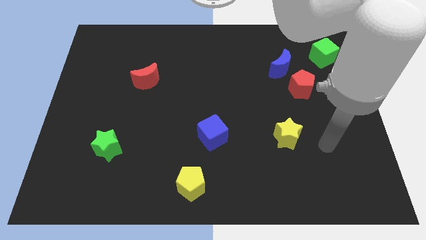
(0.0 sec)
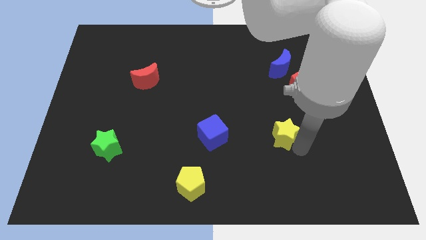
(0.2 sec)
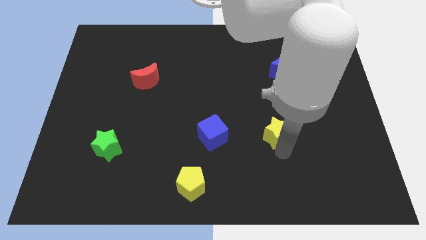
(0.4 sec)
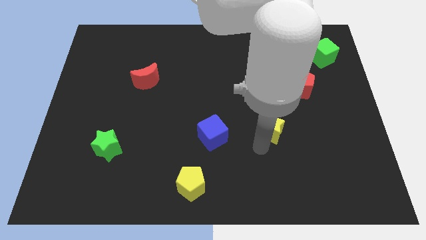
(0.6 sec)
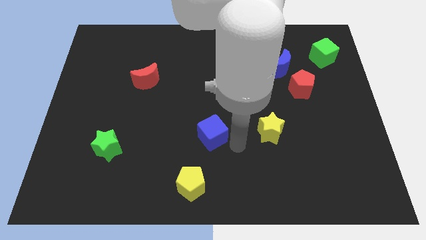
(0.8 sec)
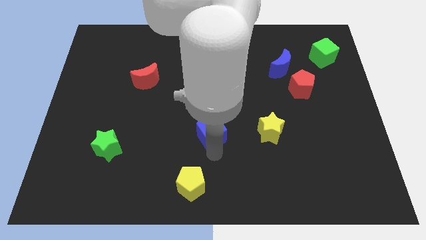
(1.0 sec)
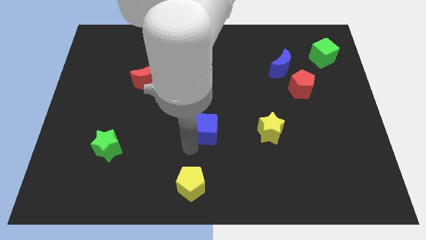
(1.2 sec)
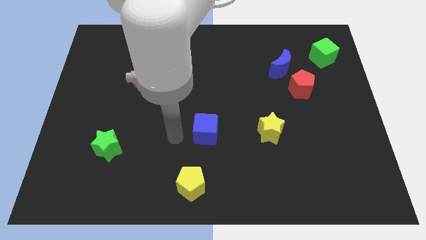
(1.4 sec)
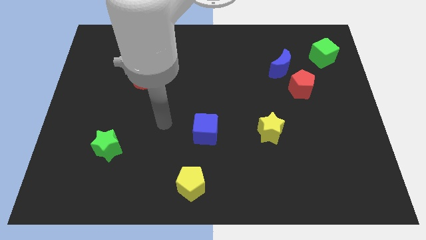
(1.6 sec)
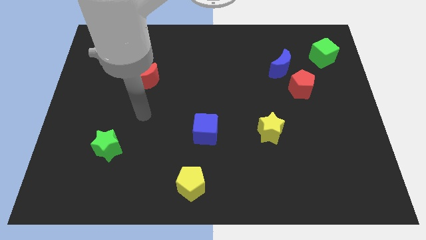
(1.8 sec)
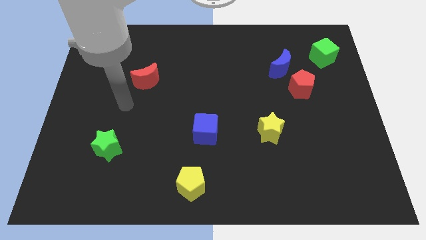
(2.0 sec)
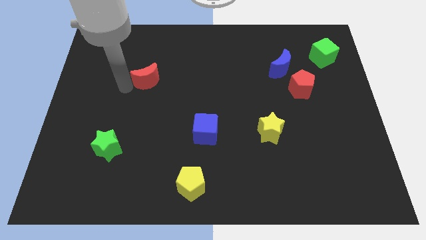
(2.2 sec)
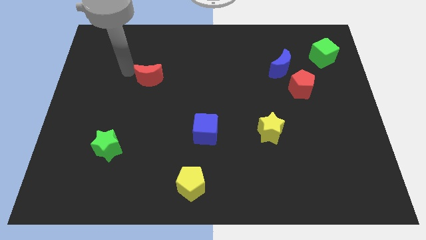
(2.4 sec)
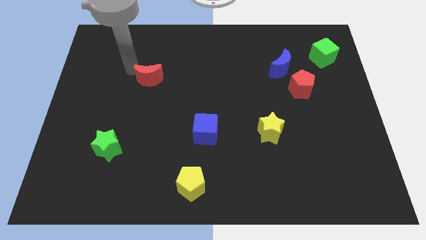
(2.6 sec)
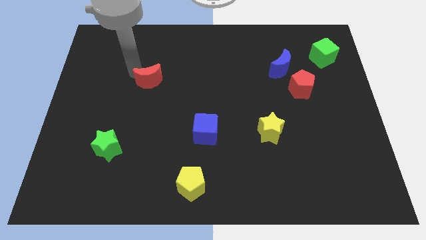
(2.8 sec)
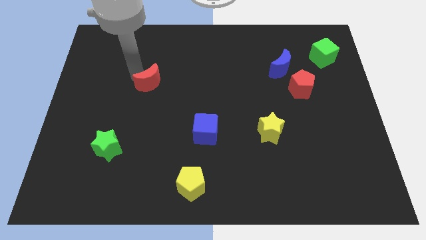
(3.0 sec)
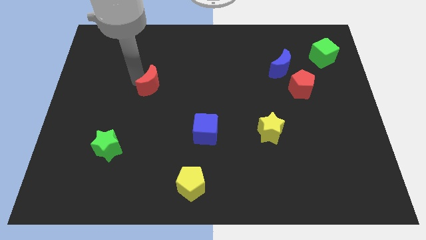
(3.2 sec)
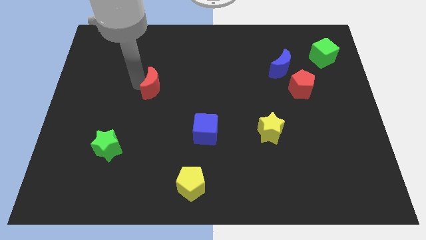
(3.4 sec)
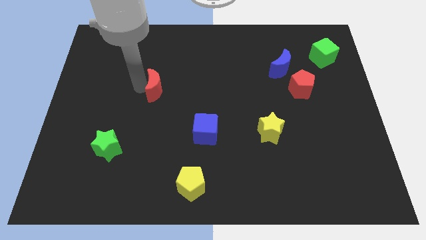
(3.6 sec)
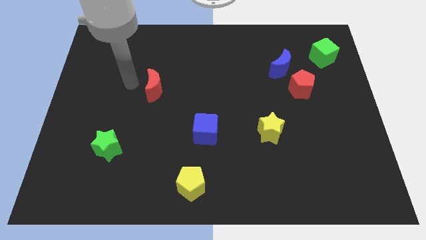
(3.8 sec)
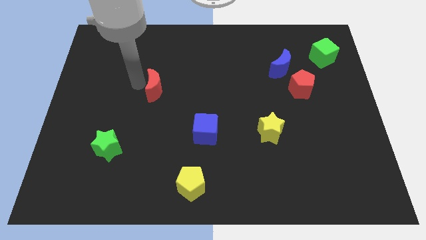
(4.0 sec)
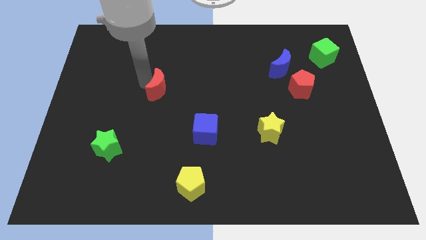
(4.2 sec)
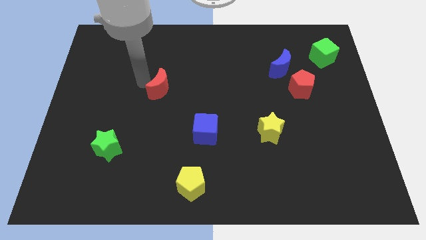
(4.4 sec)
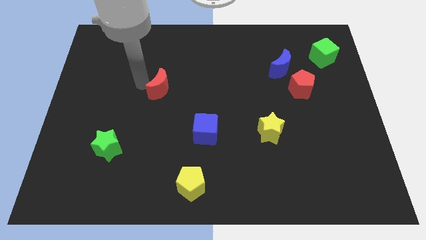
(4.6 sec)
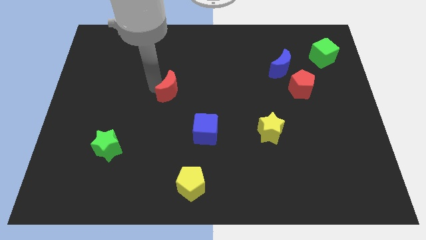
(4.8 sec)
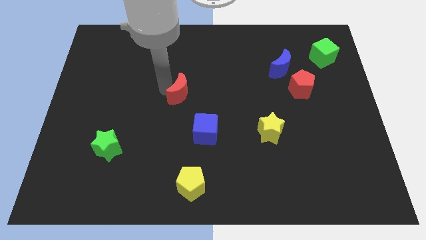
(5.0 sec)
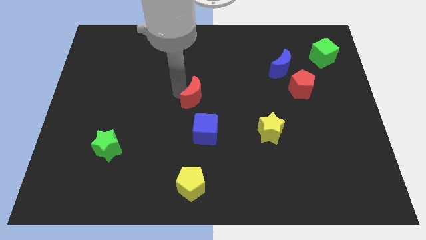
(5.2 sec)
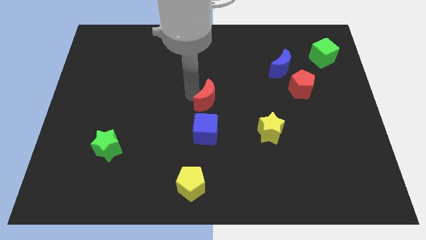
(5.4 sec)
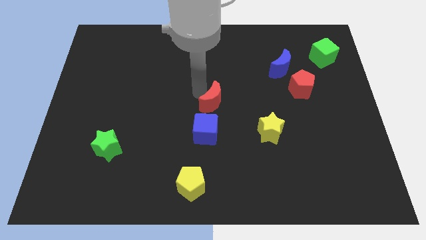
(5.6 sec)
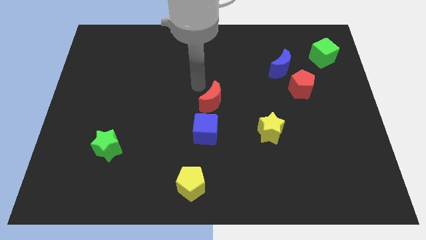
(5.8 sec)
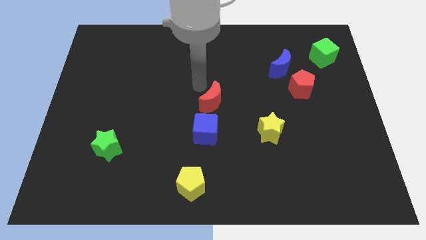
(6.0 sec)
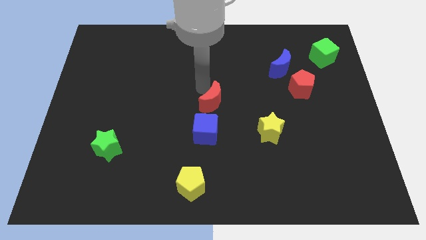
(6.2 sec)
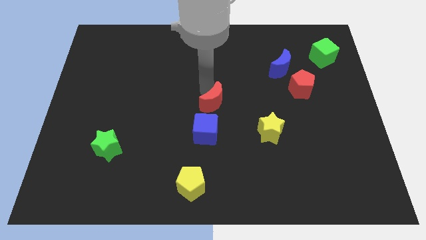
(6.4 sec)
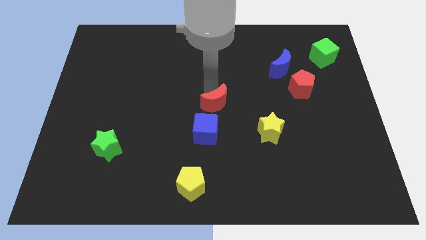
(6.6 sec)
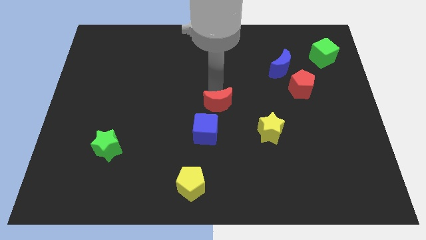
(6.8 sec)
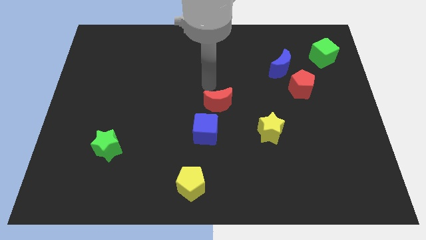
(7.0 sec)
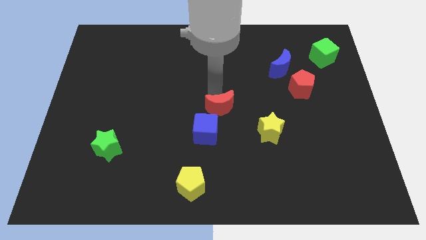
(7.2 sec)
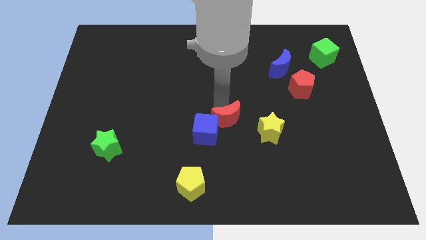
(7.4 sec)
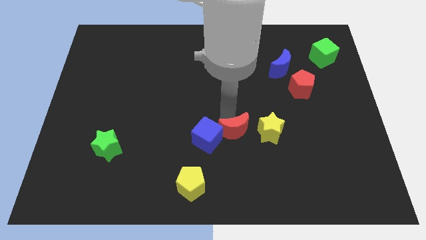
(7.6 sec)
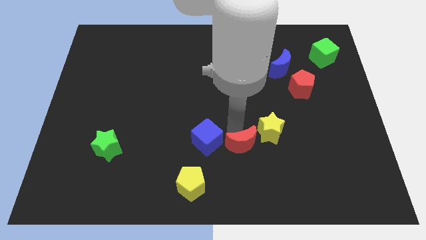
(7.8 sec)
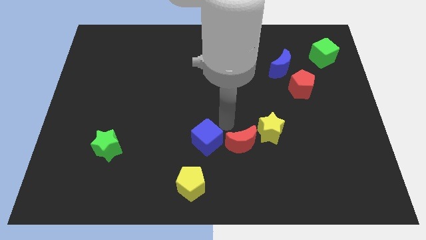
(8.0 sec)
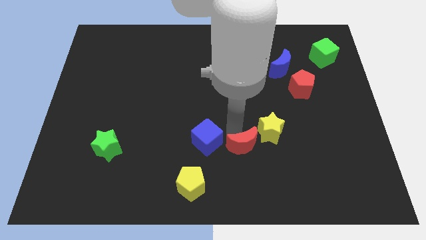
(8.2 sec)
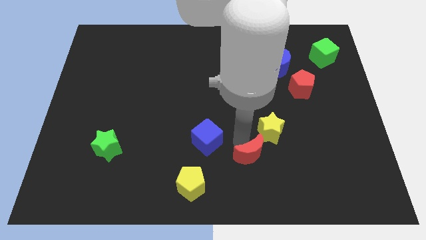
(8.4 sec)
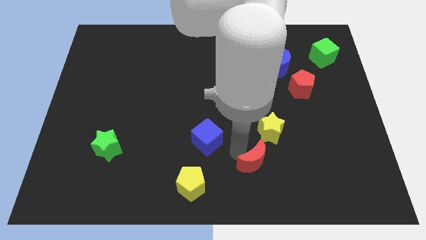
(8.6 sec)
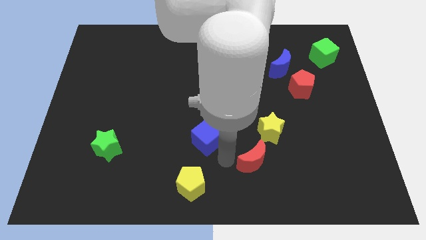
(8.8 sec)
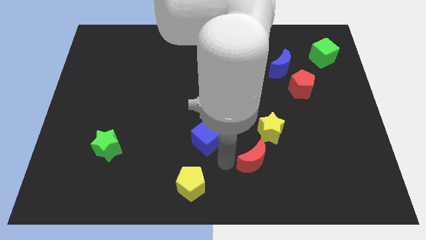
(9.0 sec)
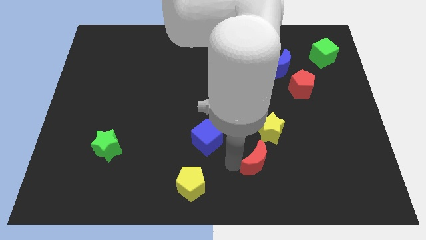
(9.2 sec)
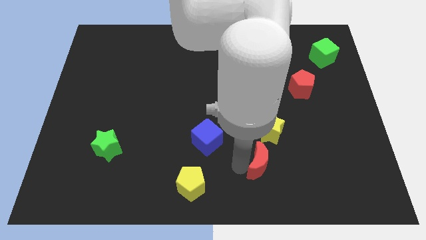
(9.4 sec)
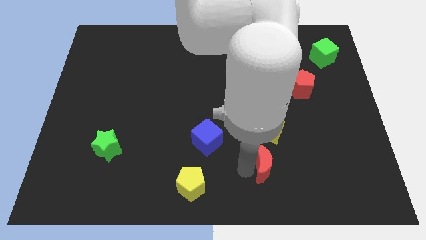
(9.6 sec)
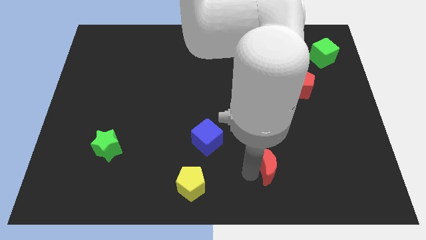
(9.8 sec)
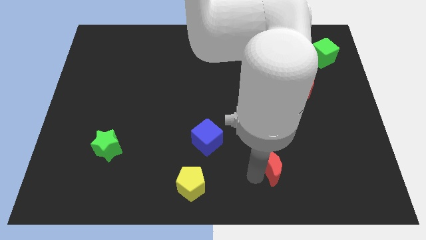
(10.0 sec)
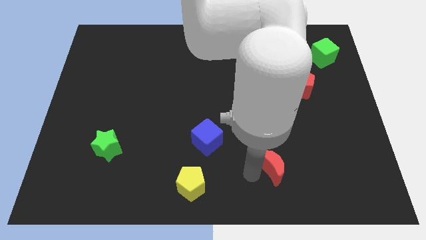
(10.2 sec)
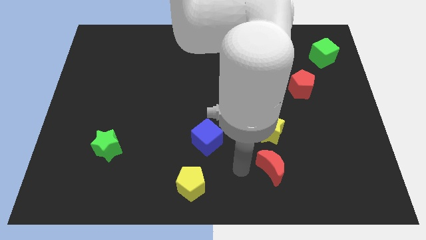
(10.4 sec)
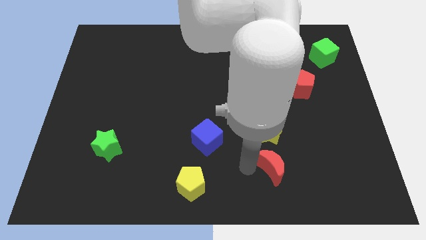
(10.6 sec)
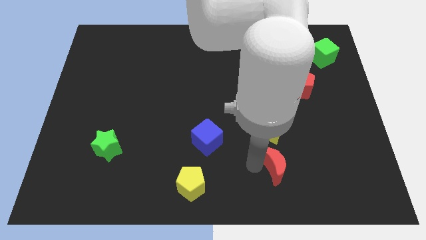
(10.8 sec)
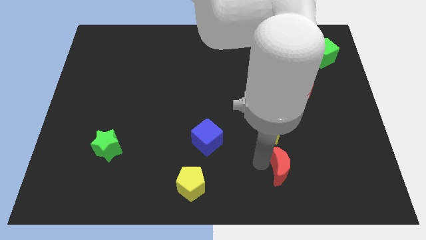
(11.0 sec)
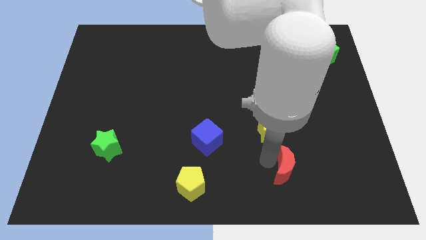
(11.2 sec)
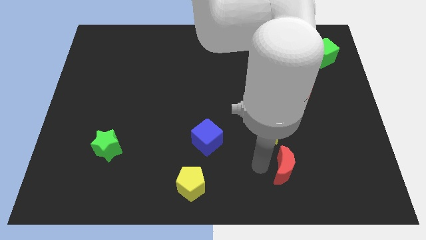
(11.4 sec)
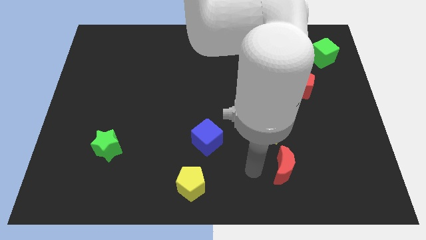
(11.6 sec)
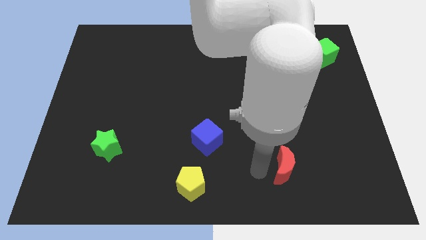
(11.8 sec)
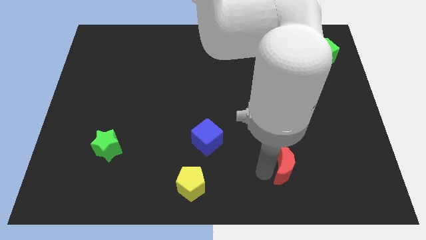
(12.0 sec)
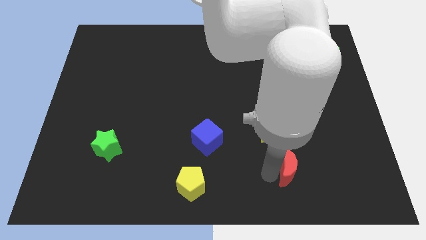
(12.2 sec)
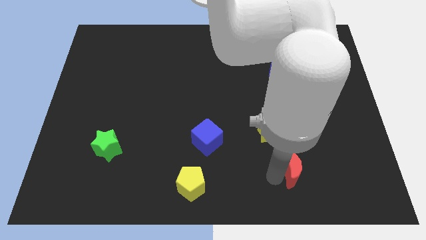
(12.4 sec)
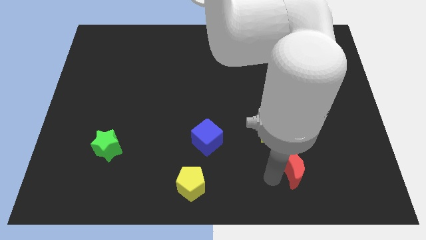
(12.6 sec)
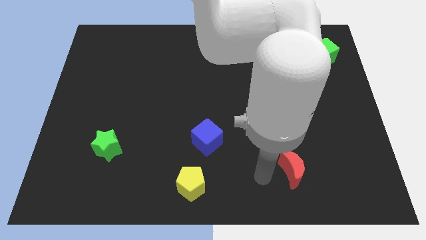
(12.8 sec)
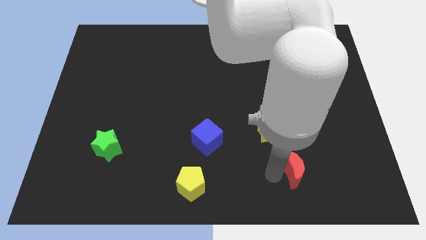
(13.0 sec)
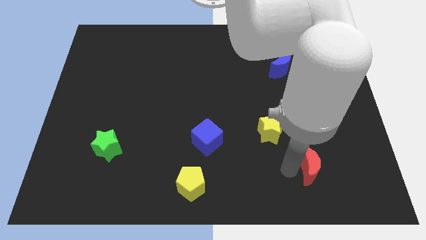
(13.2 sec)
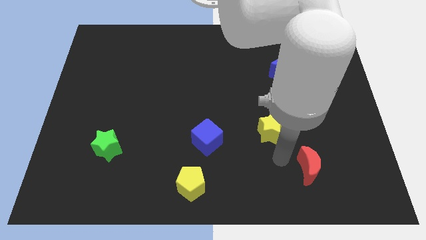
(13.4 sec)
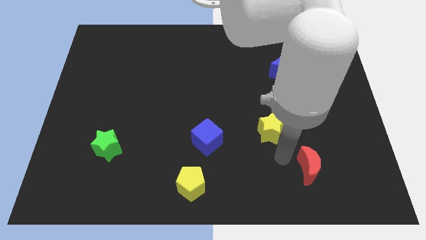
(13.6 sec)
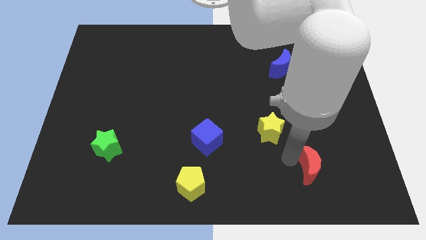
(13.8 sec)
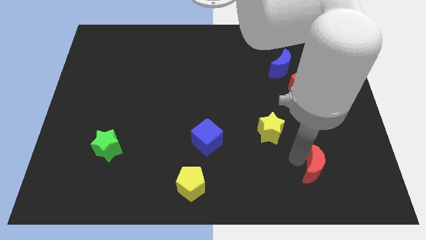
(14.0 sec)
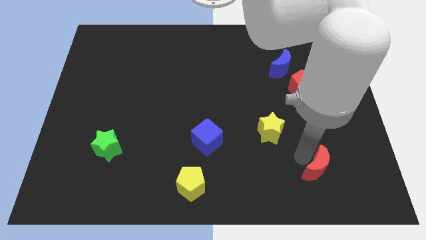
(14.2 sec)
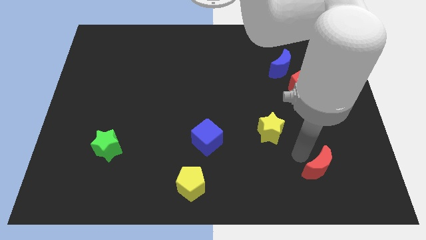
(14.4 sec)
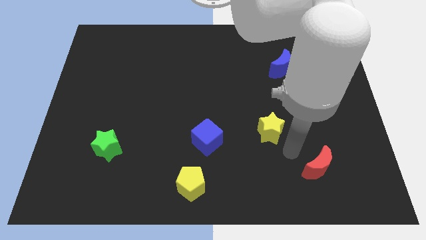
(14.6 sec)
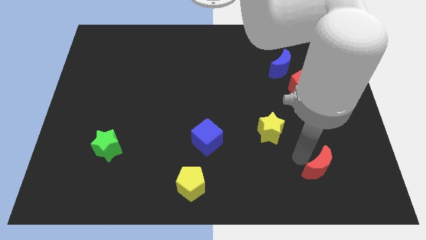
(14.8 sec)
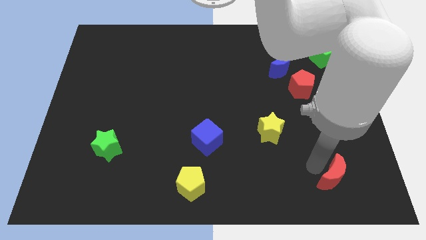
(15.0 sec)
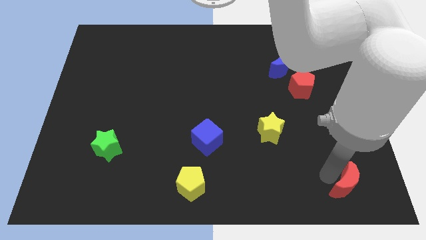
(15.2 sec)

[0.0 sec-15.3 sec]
move the red moon to the lower right corner

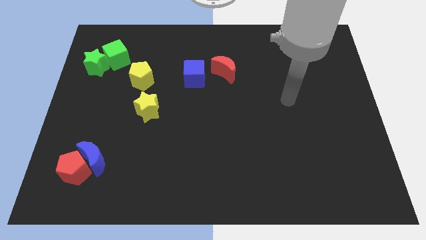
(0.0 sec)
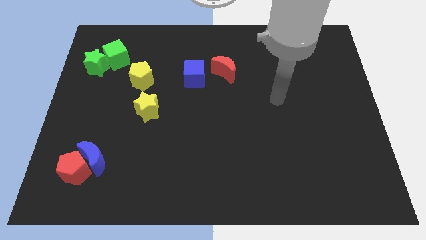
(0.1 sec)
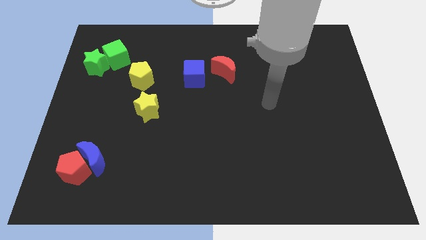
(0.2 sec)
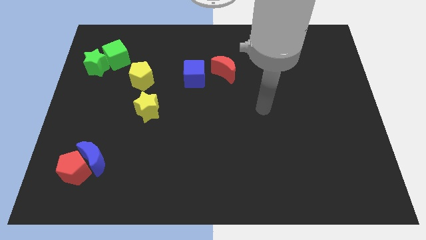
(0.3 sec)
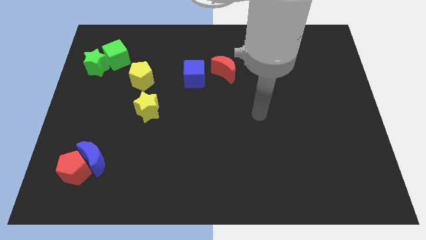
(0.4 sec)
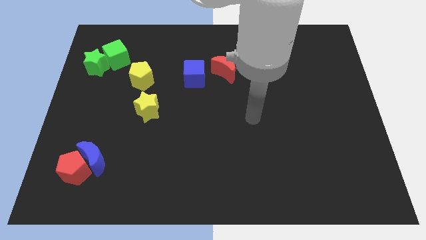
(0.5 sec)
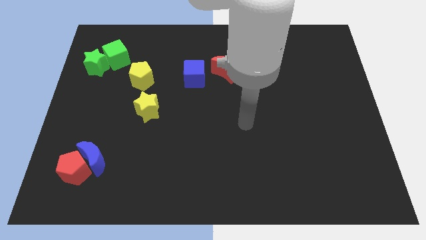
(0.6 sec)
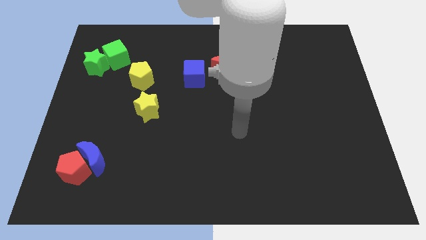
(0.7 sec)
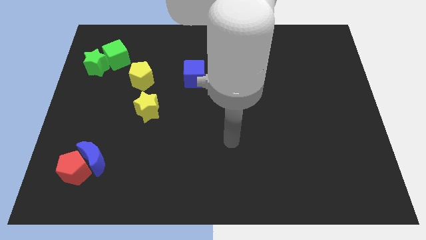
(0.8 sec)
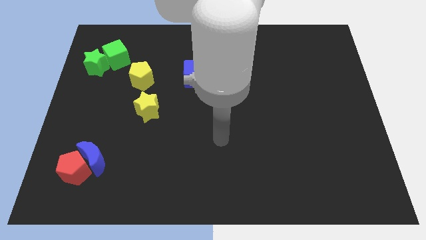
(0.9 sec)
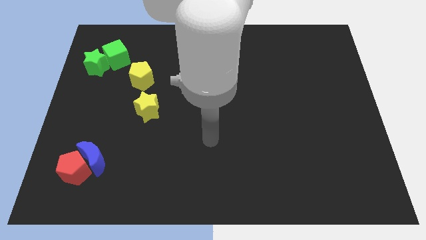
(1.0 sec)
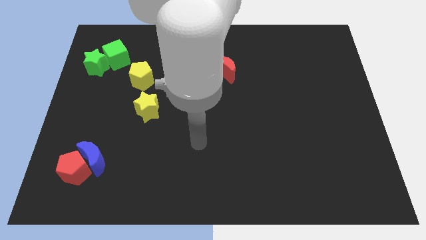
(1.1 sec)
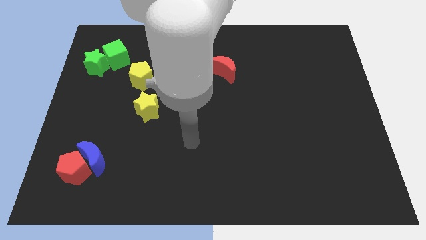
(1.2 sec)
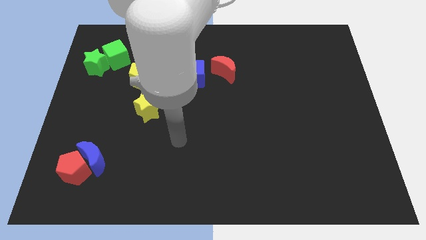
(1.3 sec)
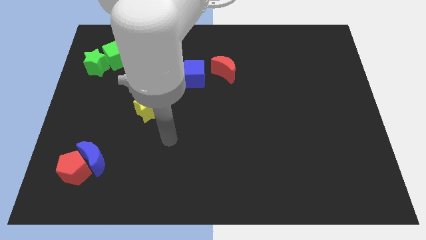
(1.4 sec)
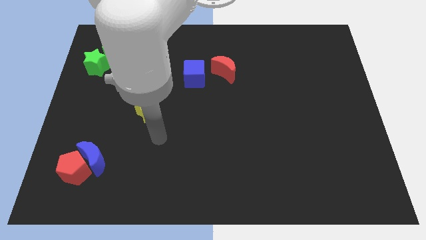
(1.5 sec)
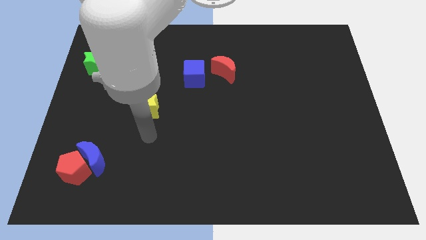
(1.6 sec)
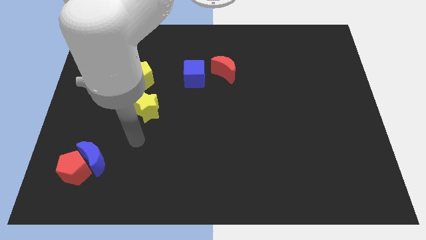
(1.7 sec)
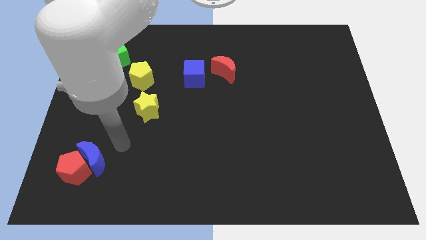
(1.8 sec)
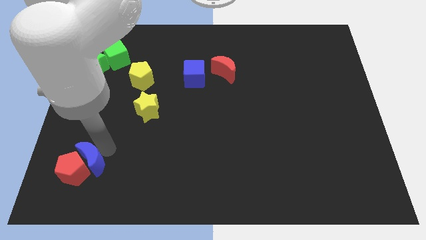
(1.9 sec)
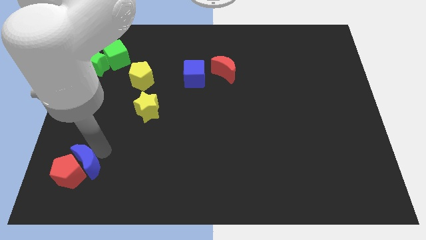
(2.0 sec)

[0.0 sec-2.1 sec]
slide the red pentagon to the bottom left
